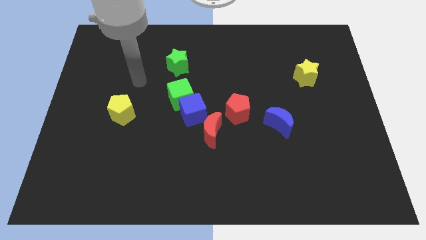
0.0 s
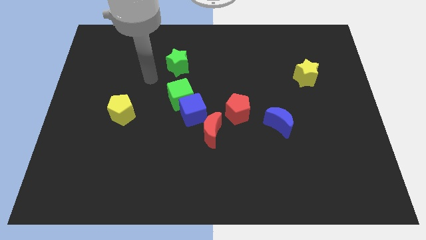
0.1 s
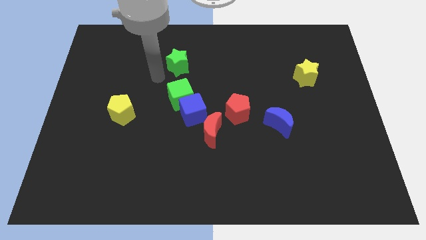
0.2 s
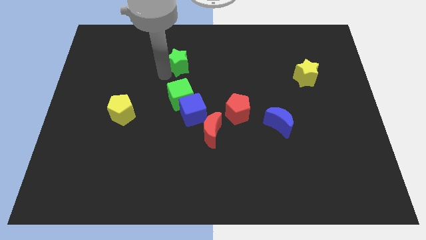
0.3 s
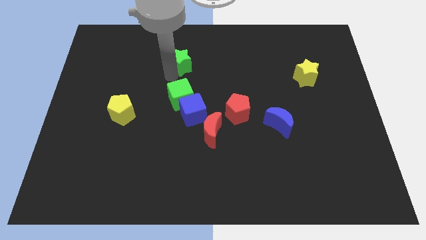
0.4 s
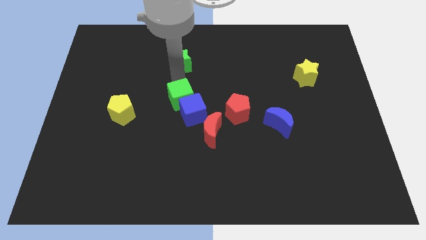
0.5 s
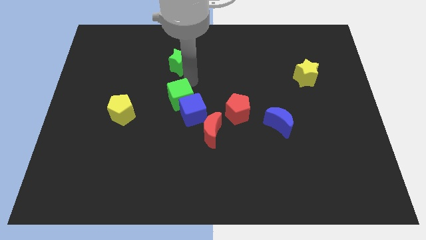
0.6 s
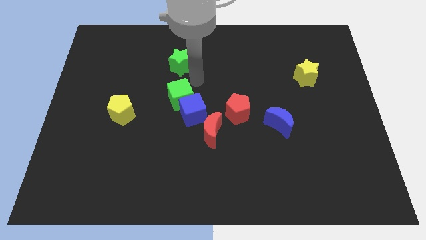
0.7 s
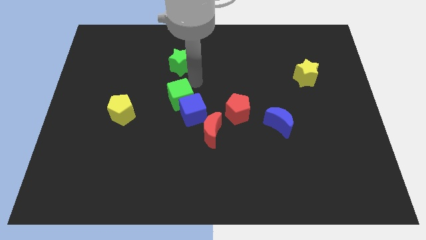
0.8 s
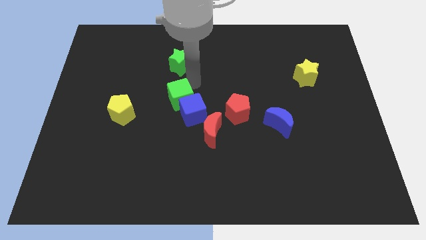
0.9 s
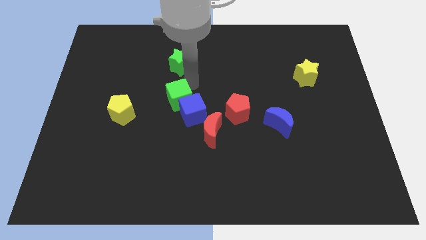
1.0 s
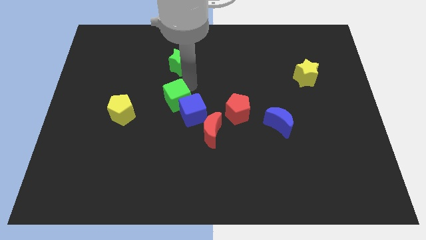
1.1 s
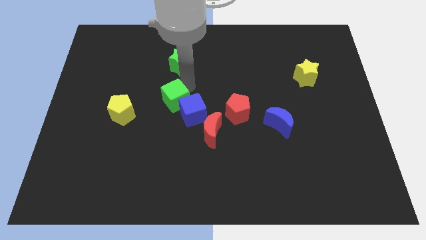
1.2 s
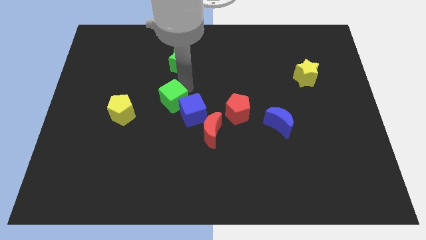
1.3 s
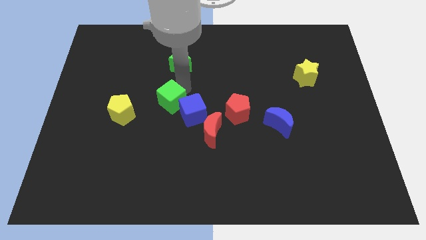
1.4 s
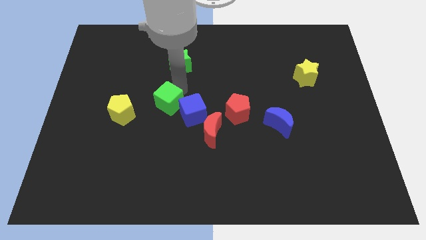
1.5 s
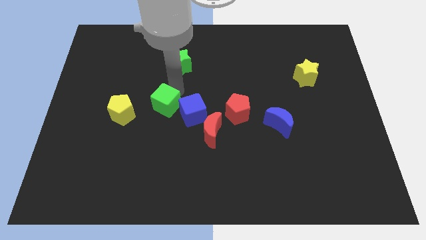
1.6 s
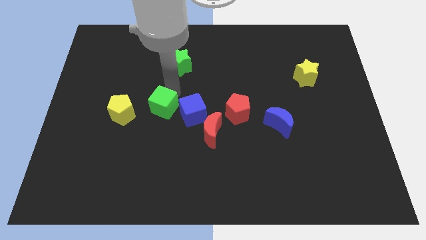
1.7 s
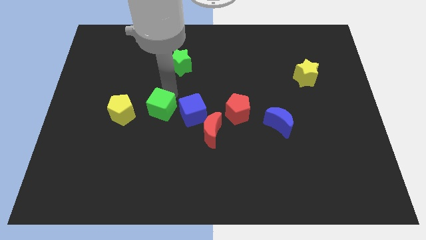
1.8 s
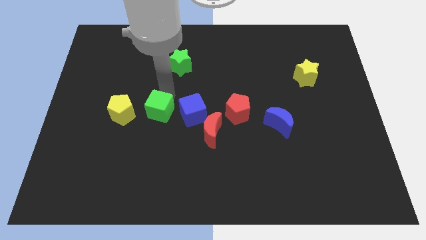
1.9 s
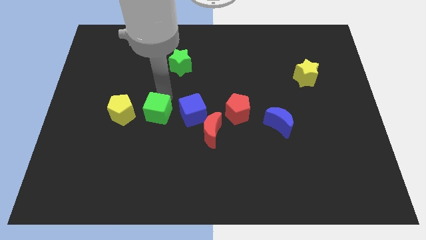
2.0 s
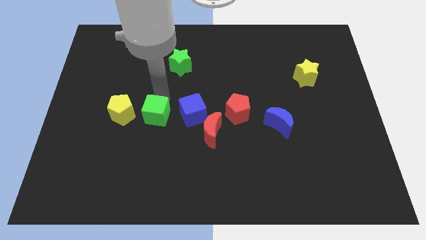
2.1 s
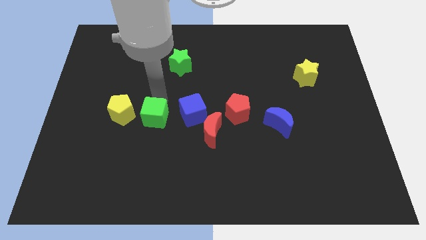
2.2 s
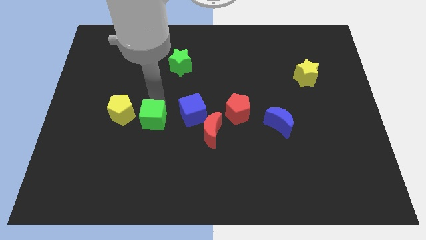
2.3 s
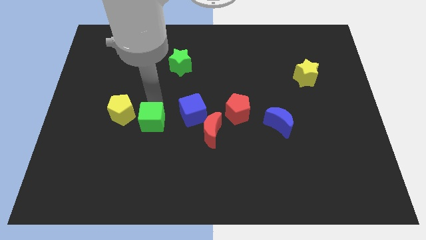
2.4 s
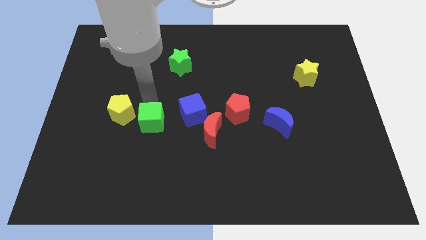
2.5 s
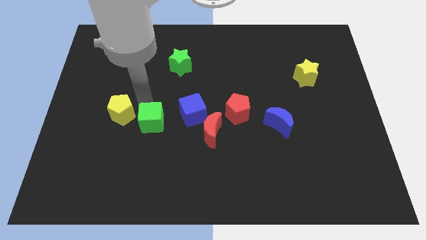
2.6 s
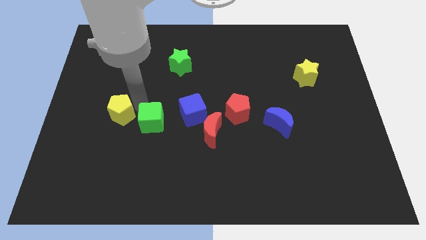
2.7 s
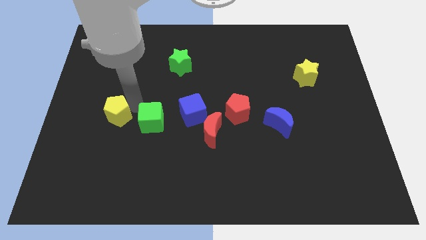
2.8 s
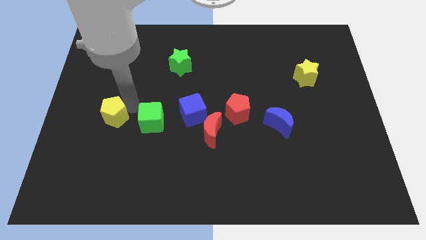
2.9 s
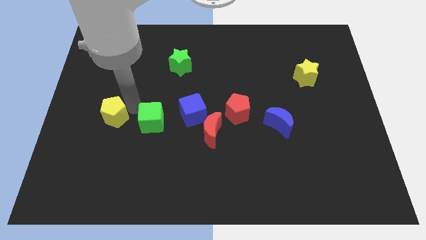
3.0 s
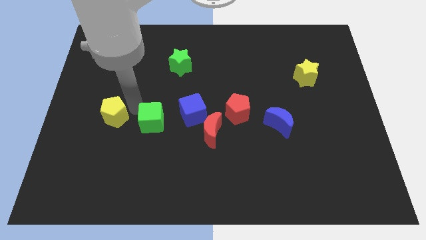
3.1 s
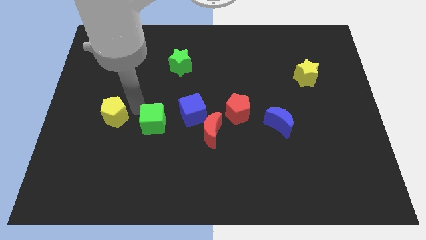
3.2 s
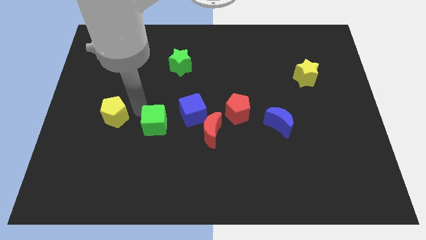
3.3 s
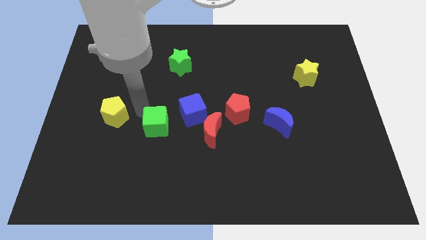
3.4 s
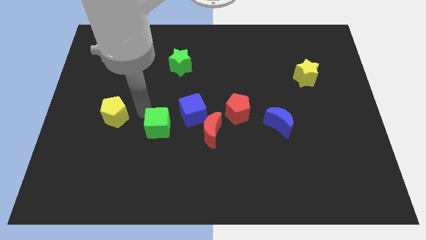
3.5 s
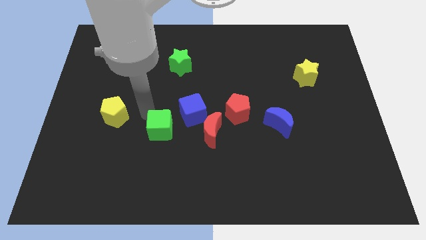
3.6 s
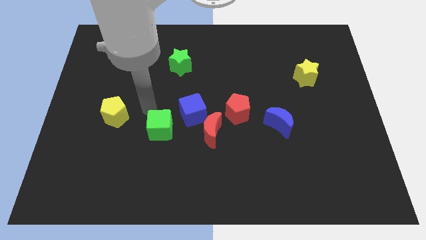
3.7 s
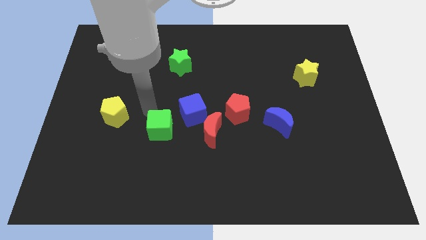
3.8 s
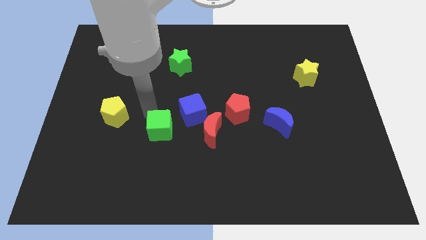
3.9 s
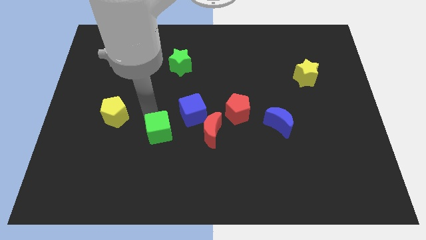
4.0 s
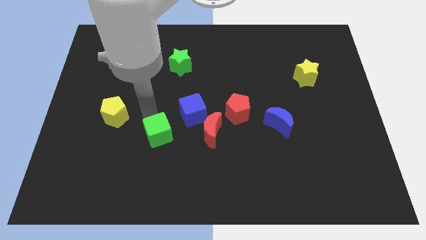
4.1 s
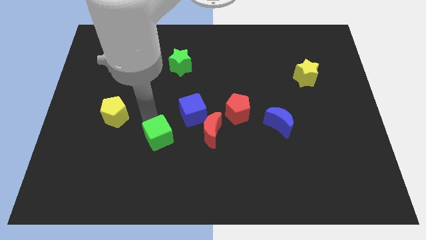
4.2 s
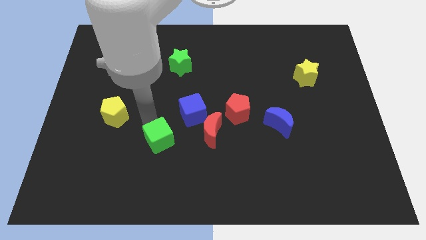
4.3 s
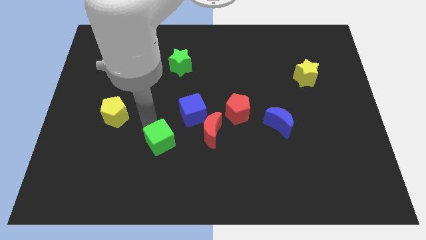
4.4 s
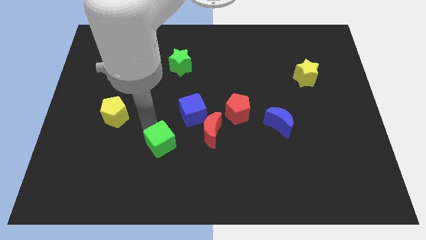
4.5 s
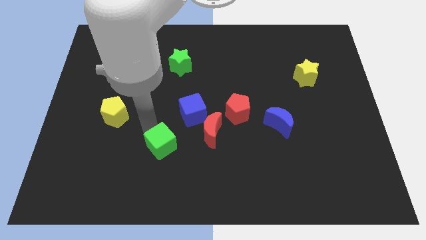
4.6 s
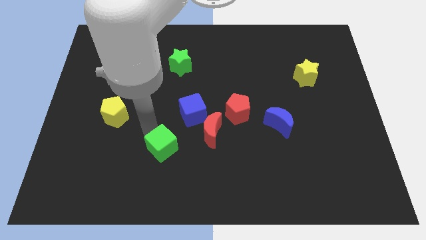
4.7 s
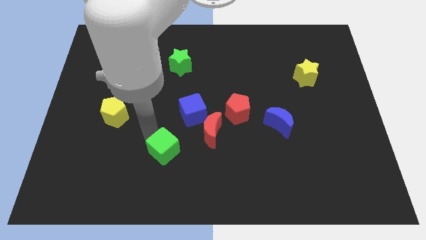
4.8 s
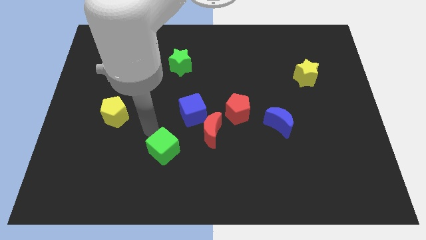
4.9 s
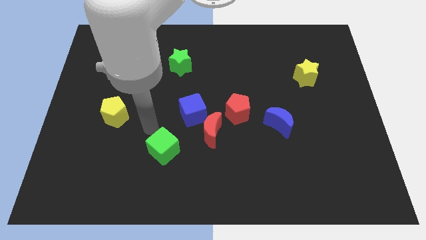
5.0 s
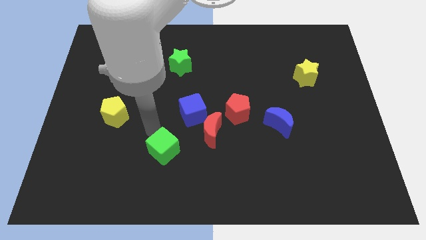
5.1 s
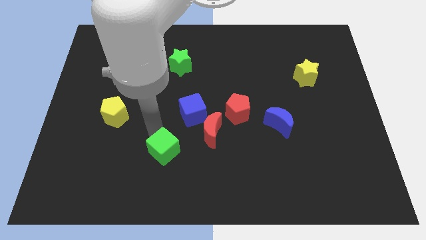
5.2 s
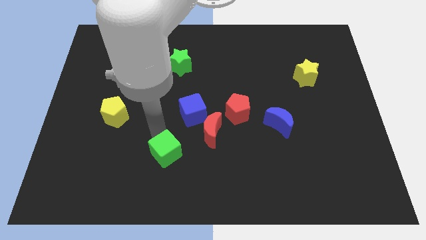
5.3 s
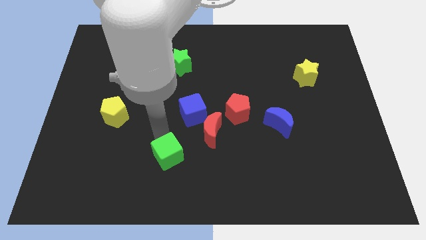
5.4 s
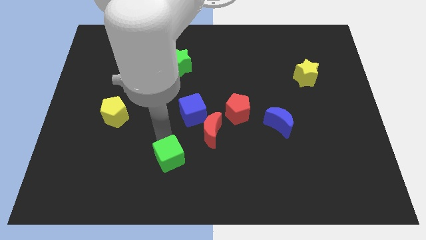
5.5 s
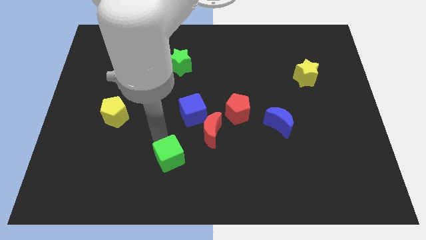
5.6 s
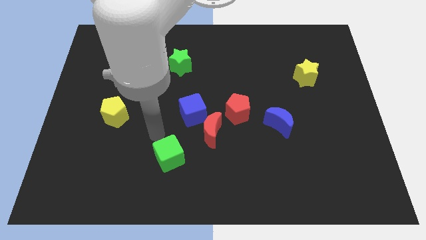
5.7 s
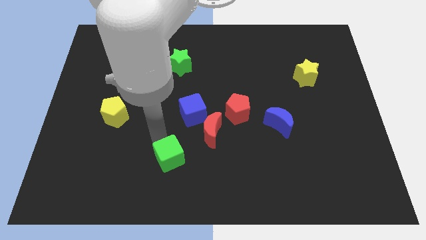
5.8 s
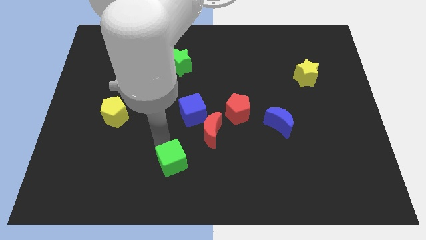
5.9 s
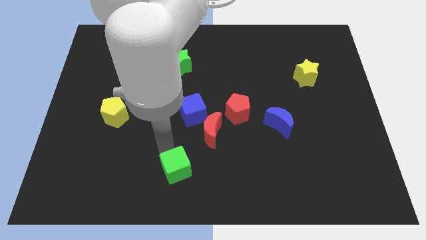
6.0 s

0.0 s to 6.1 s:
move the green cube to the bottom side

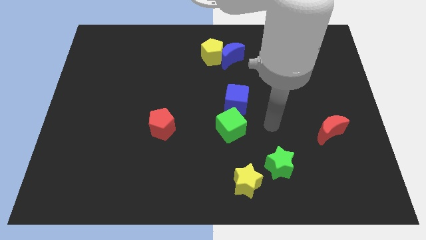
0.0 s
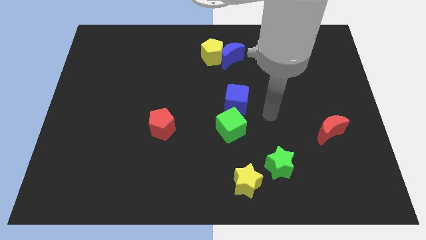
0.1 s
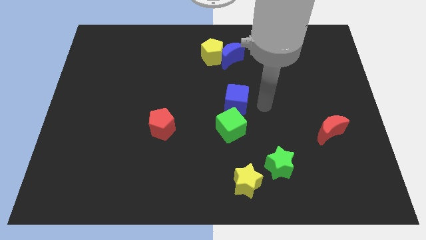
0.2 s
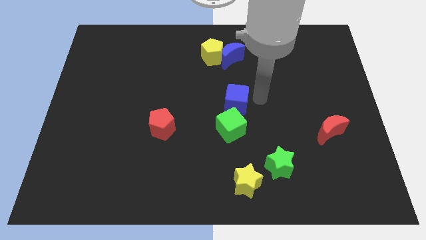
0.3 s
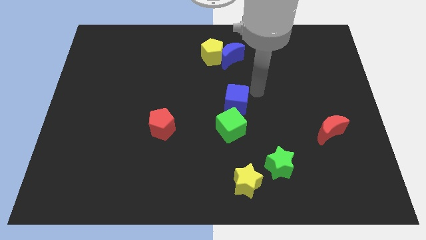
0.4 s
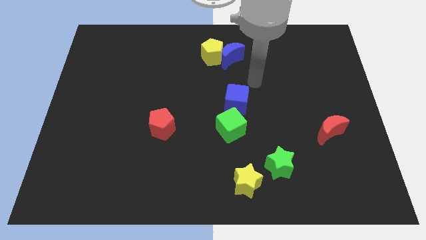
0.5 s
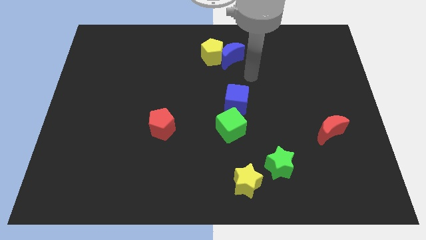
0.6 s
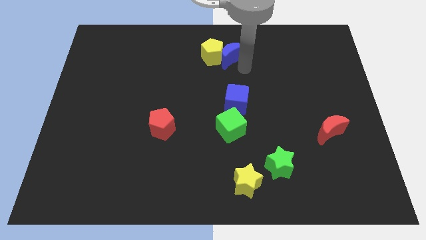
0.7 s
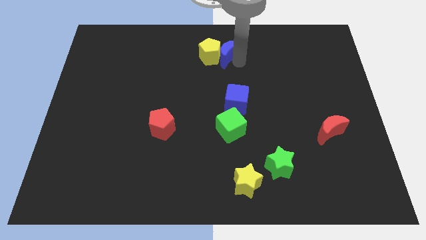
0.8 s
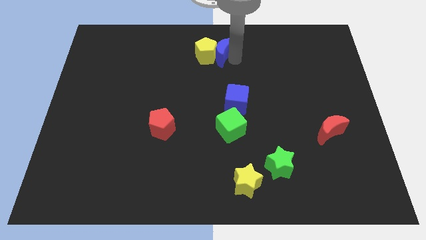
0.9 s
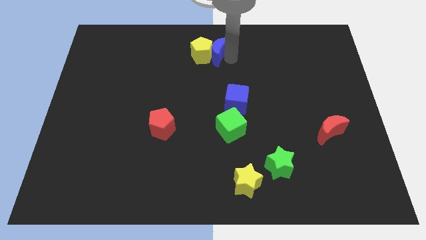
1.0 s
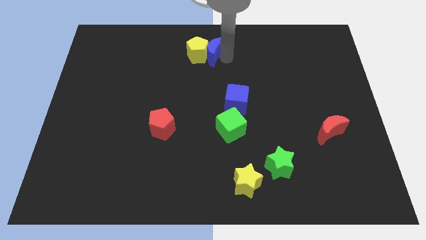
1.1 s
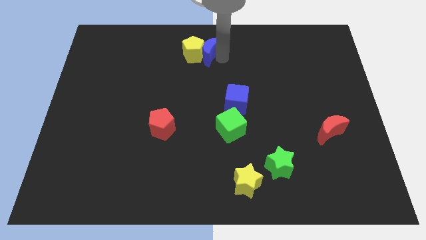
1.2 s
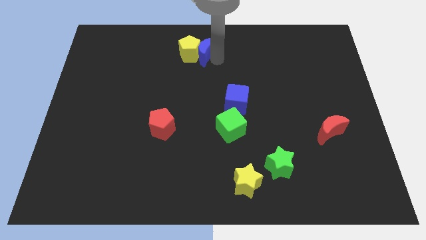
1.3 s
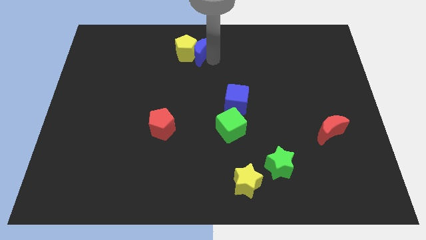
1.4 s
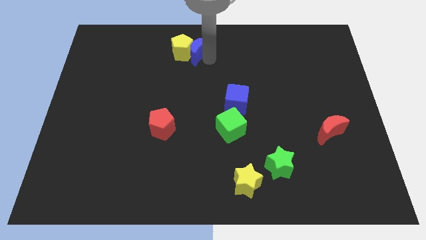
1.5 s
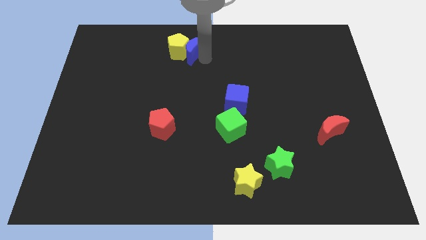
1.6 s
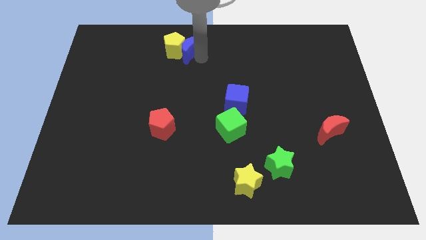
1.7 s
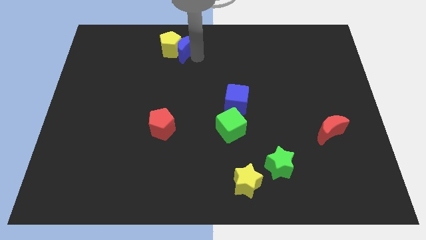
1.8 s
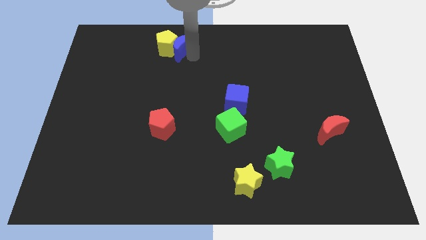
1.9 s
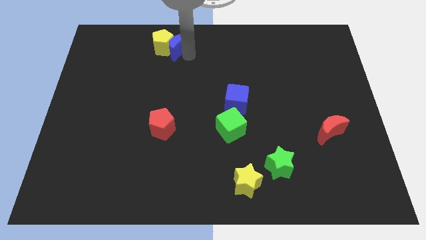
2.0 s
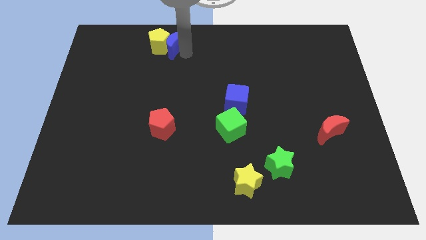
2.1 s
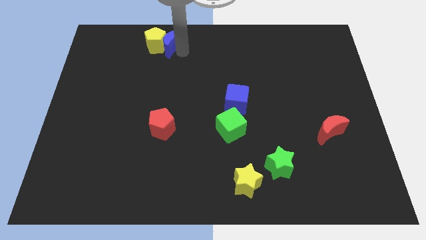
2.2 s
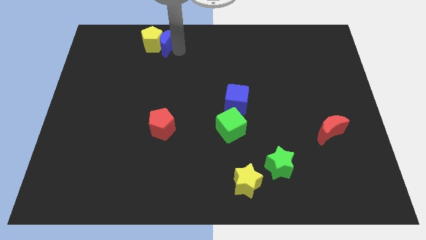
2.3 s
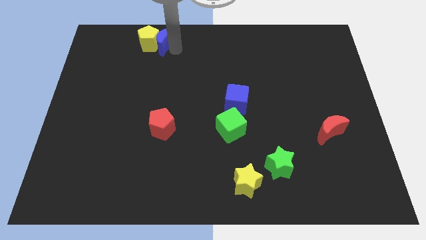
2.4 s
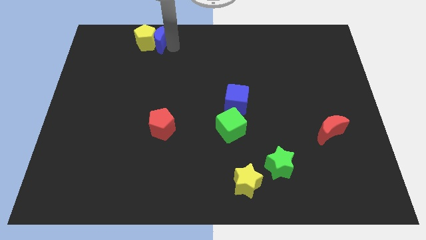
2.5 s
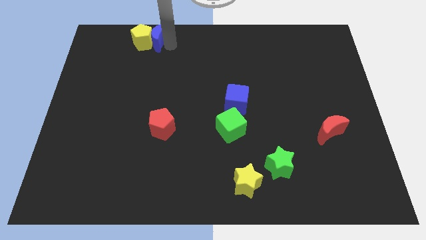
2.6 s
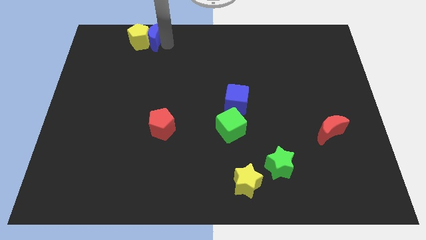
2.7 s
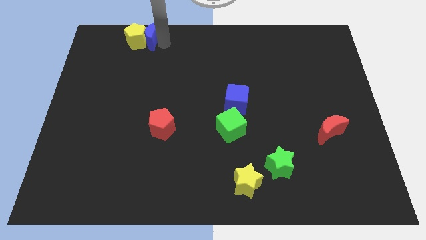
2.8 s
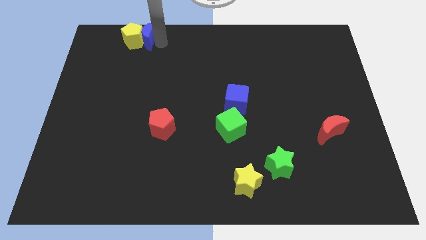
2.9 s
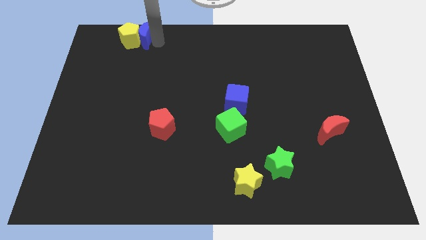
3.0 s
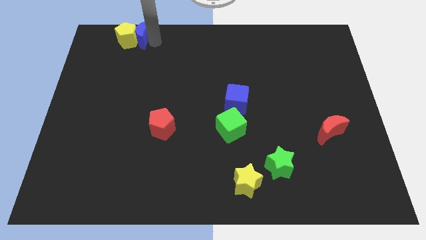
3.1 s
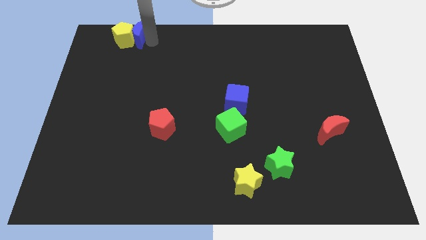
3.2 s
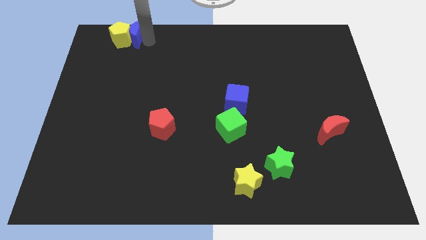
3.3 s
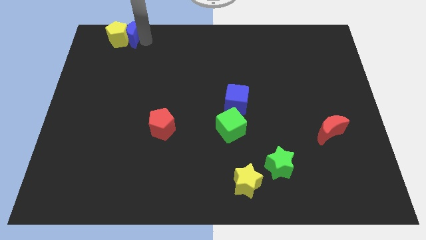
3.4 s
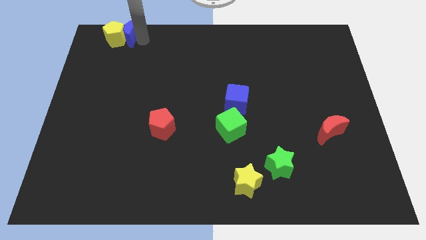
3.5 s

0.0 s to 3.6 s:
put the yellow pentagon to the top left of the board
